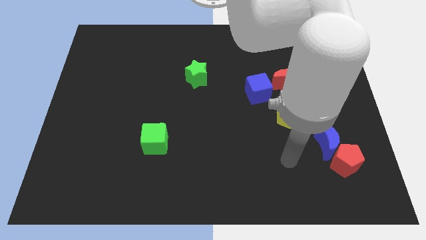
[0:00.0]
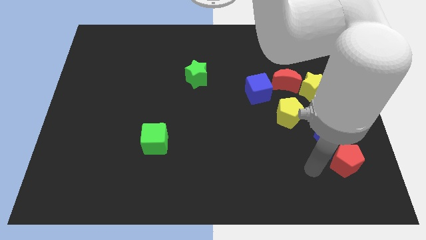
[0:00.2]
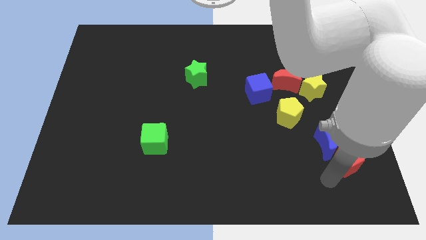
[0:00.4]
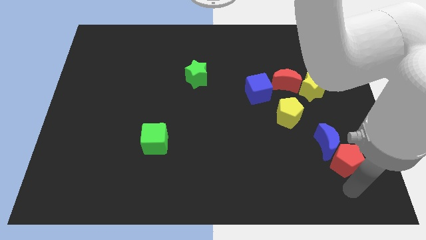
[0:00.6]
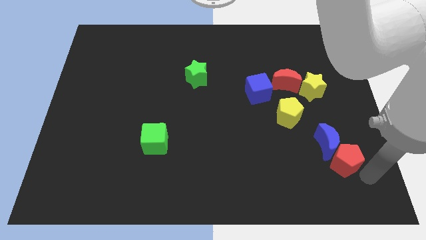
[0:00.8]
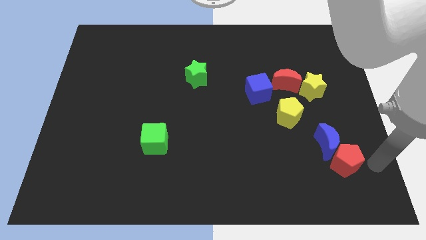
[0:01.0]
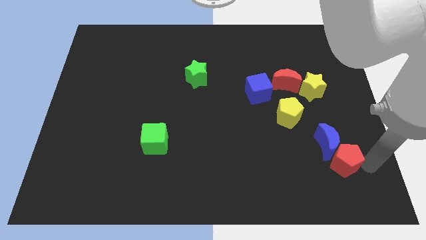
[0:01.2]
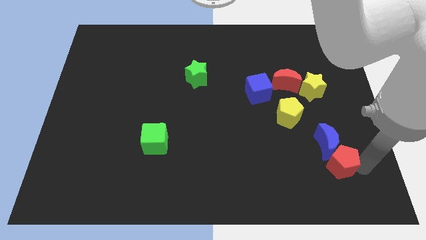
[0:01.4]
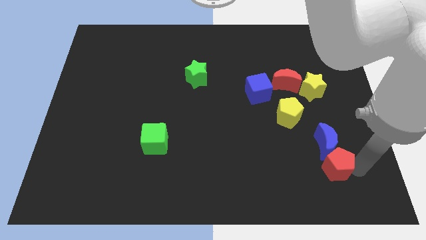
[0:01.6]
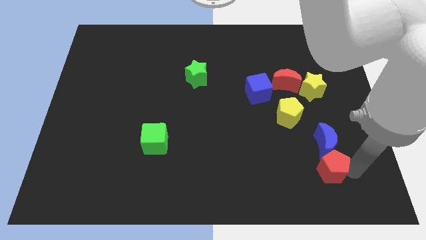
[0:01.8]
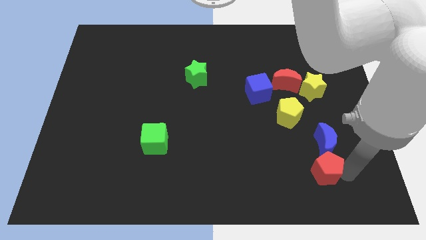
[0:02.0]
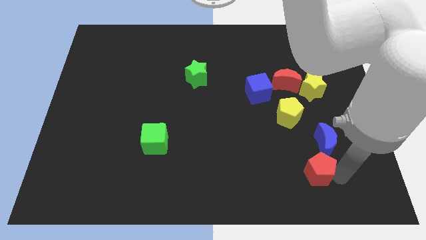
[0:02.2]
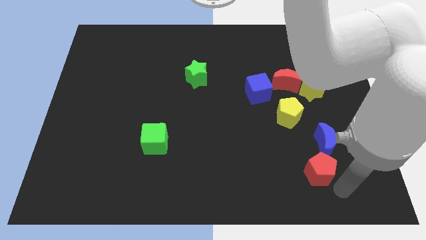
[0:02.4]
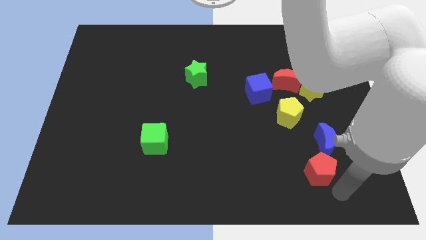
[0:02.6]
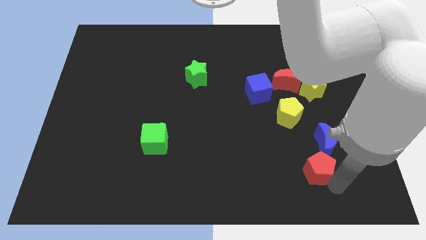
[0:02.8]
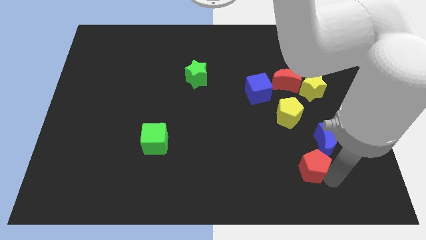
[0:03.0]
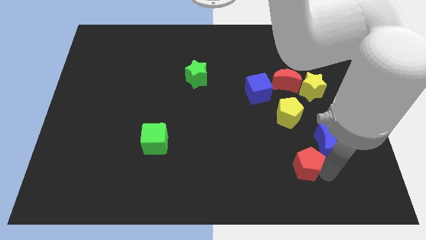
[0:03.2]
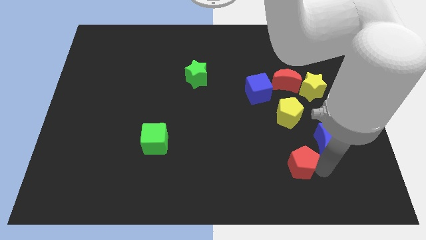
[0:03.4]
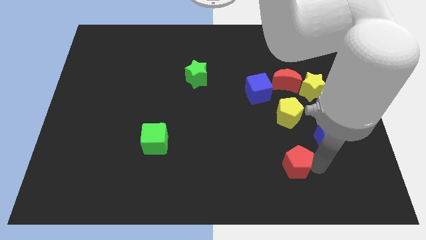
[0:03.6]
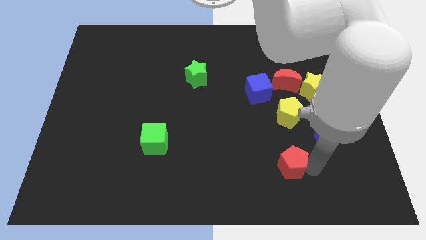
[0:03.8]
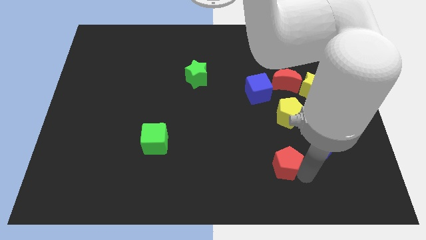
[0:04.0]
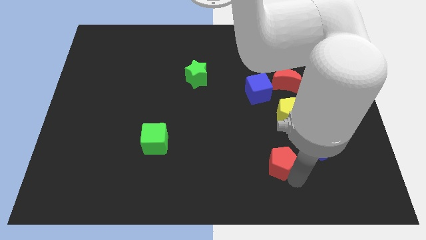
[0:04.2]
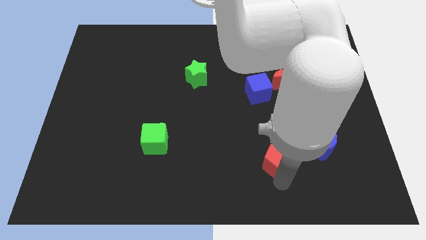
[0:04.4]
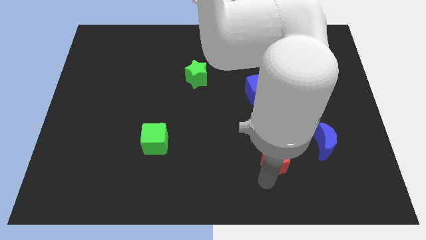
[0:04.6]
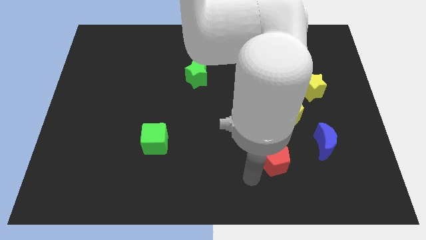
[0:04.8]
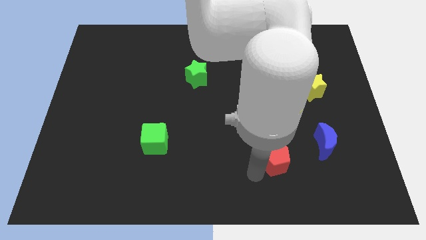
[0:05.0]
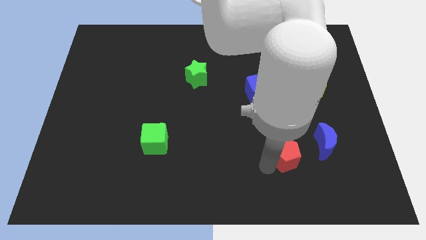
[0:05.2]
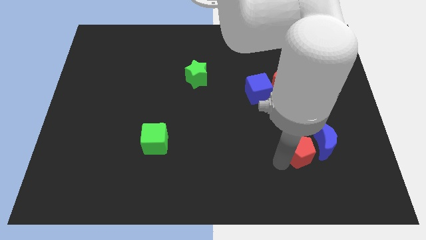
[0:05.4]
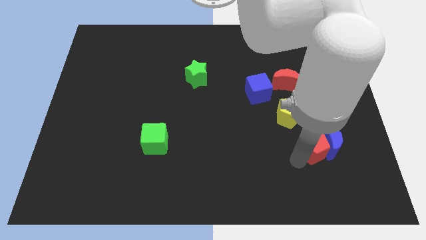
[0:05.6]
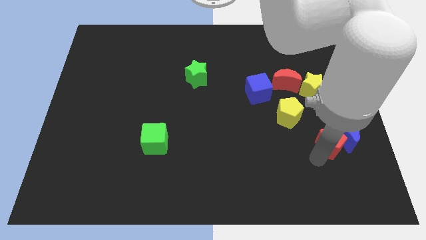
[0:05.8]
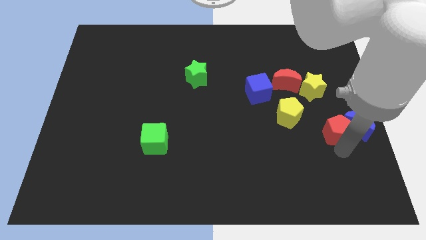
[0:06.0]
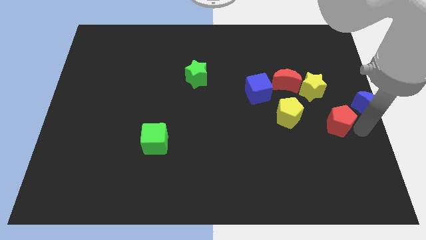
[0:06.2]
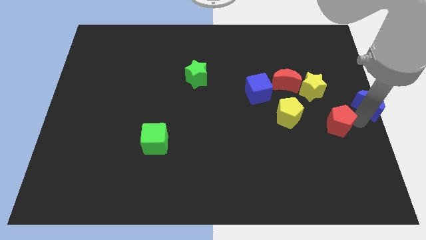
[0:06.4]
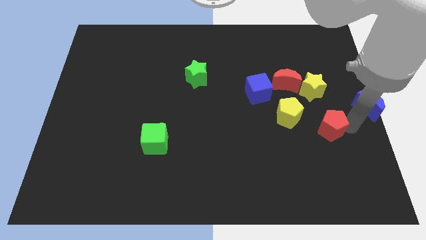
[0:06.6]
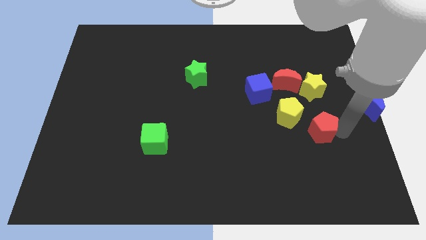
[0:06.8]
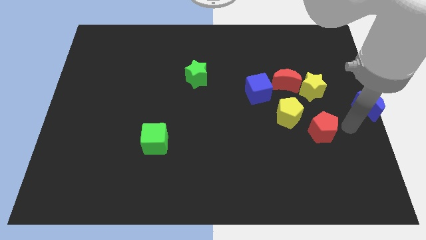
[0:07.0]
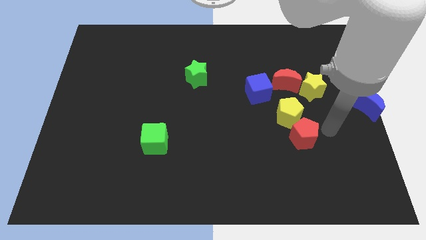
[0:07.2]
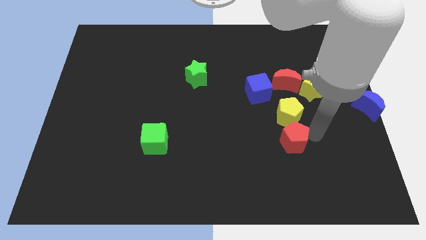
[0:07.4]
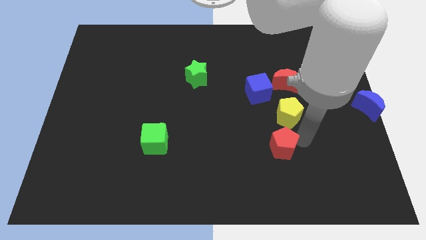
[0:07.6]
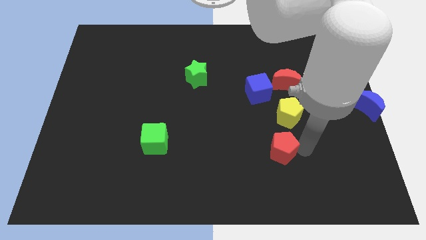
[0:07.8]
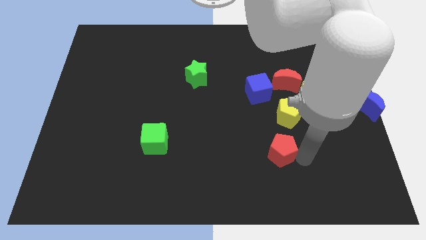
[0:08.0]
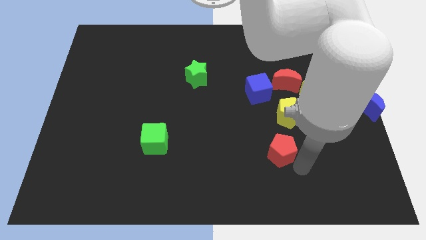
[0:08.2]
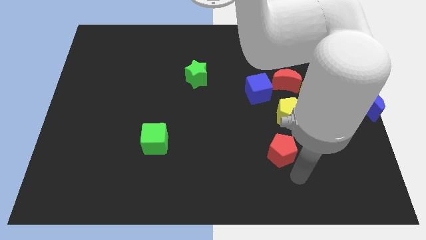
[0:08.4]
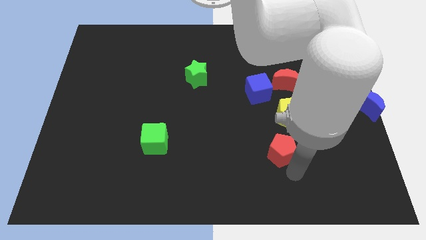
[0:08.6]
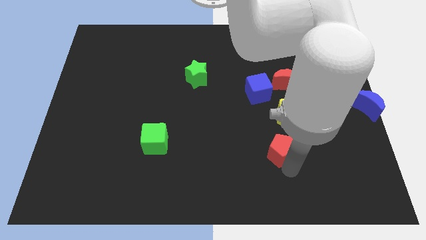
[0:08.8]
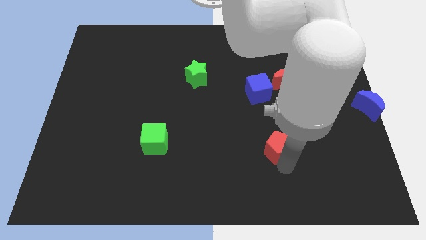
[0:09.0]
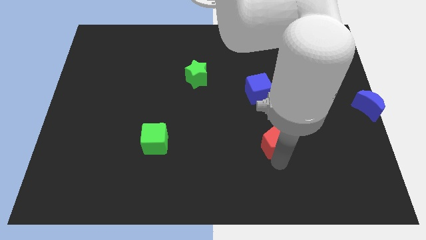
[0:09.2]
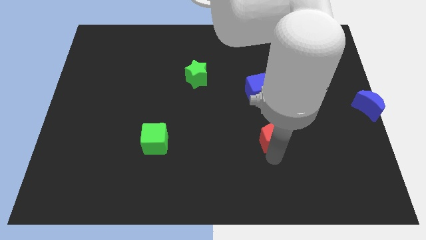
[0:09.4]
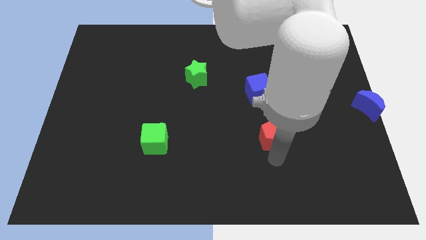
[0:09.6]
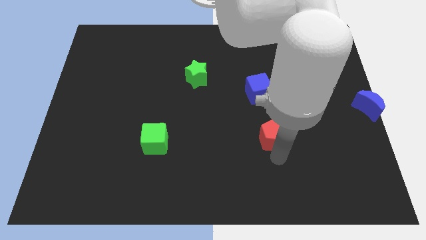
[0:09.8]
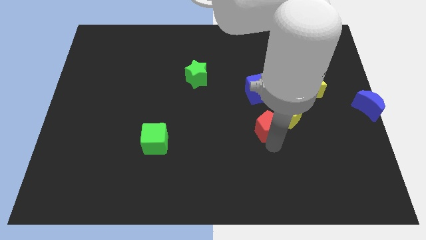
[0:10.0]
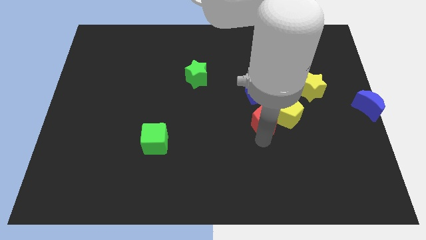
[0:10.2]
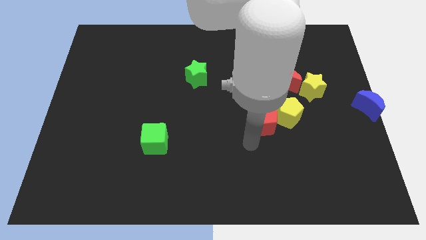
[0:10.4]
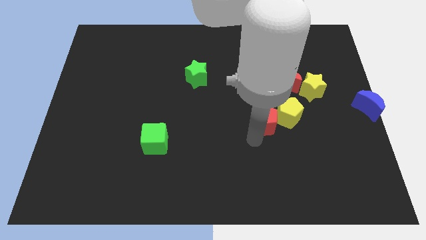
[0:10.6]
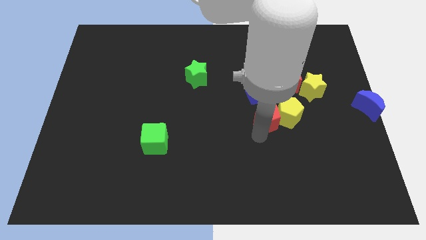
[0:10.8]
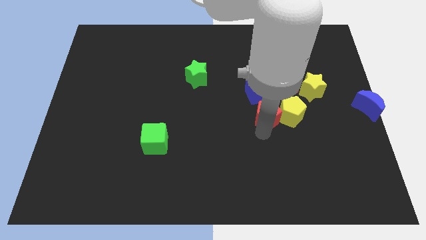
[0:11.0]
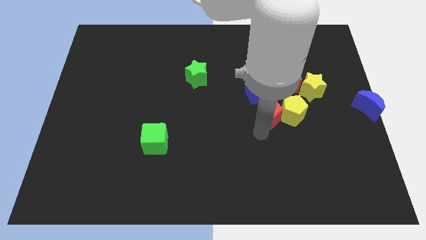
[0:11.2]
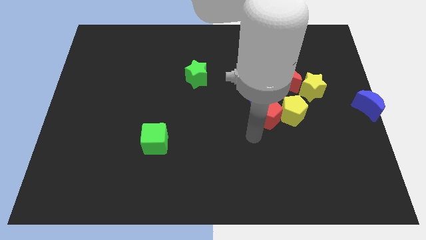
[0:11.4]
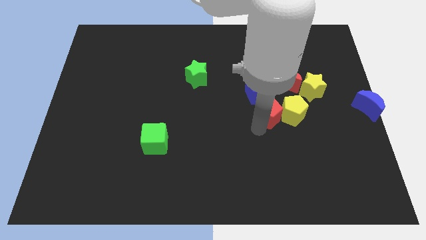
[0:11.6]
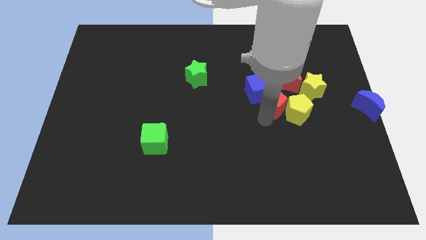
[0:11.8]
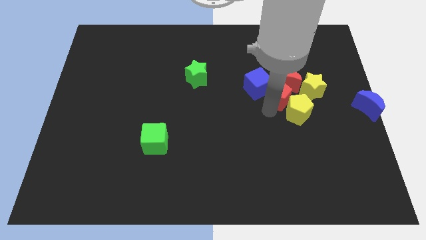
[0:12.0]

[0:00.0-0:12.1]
slide the red pentagon to the red moon

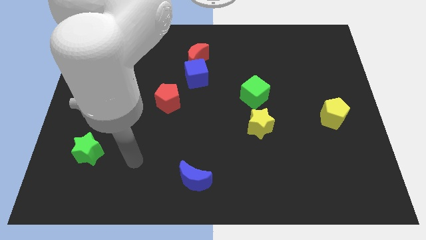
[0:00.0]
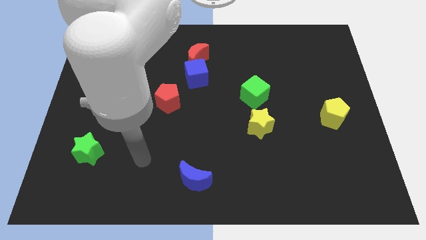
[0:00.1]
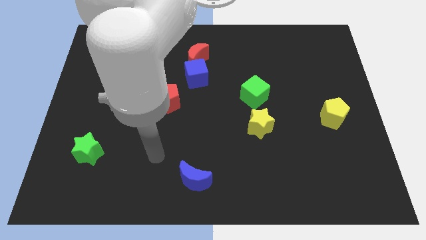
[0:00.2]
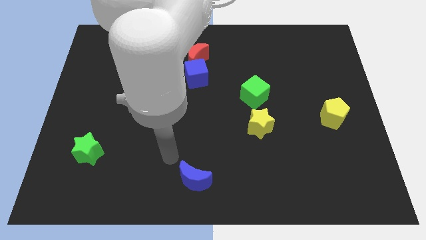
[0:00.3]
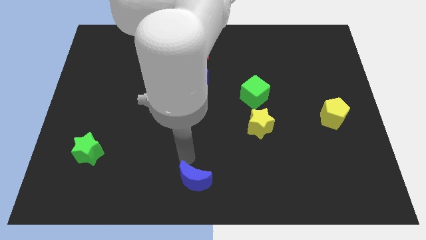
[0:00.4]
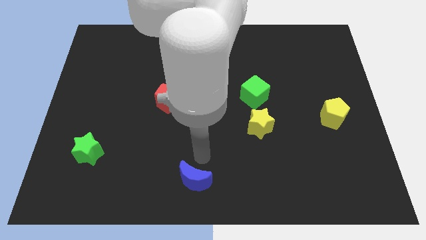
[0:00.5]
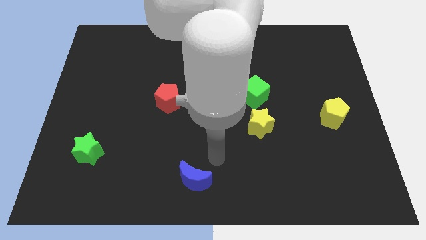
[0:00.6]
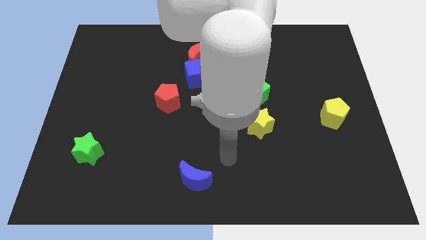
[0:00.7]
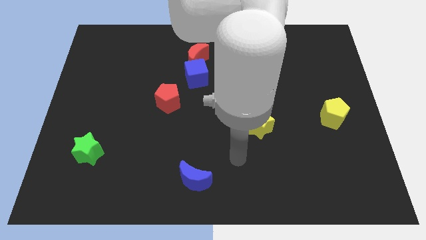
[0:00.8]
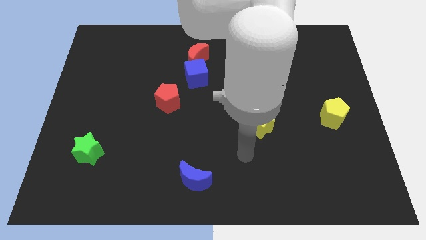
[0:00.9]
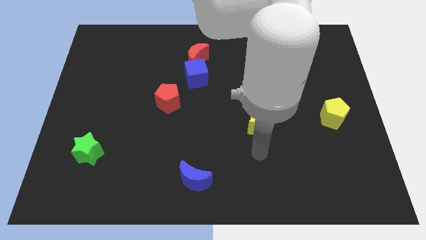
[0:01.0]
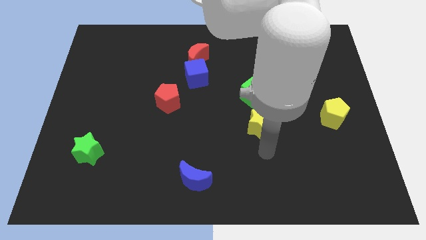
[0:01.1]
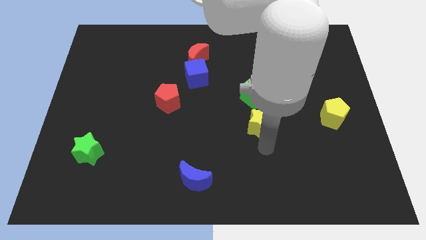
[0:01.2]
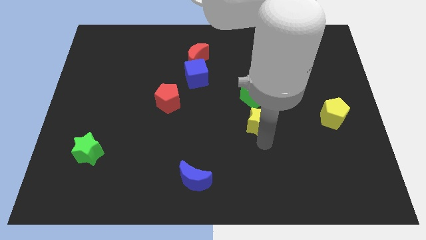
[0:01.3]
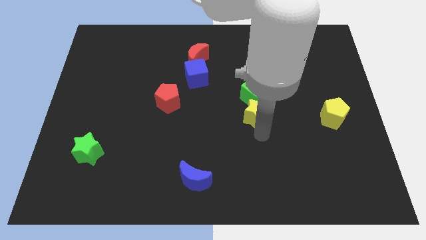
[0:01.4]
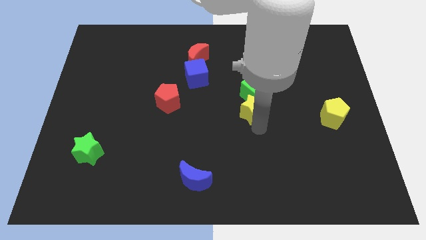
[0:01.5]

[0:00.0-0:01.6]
put the yellow star close to the green cube
